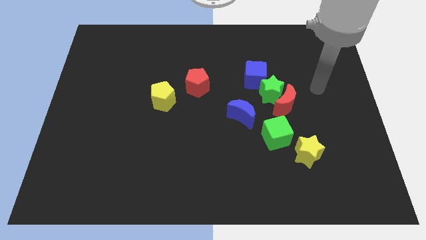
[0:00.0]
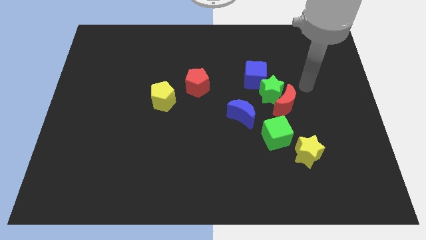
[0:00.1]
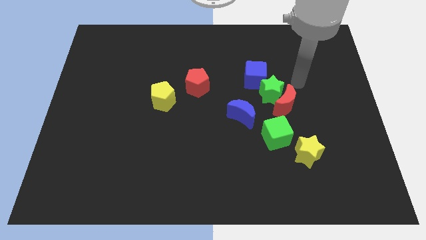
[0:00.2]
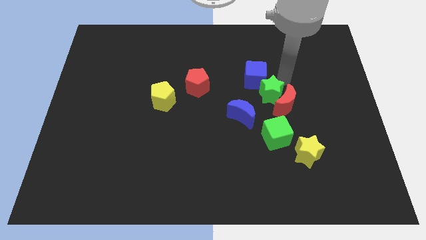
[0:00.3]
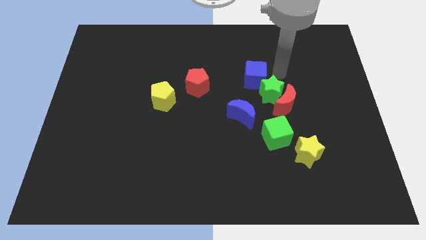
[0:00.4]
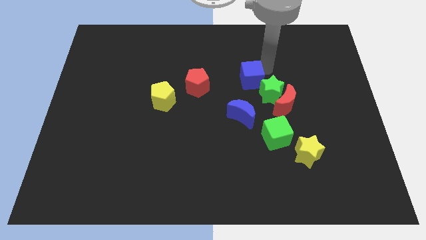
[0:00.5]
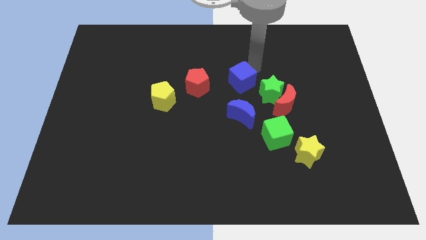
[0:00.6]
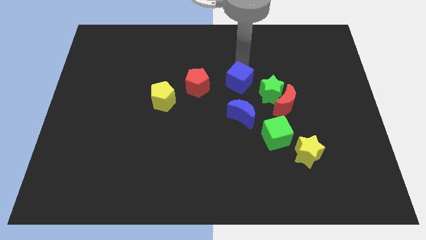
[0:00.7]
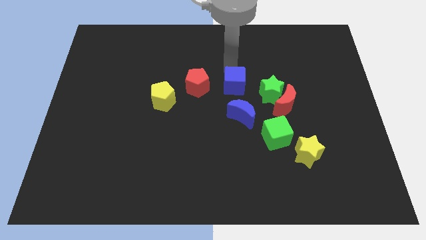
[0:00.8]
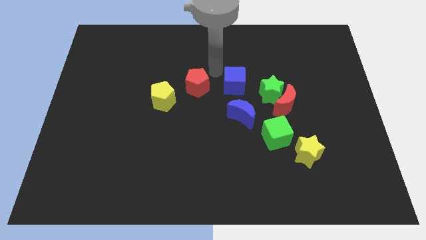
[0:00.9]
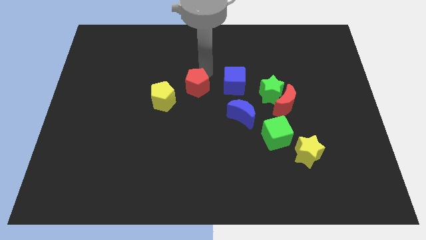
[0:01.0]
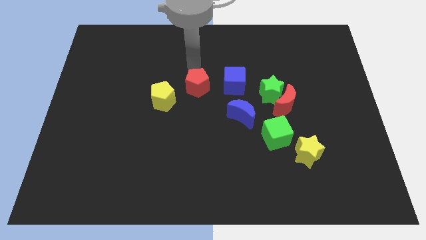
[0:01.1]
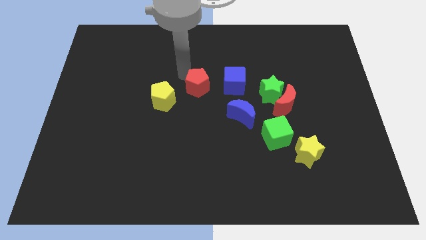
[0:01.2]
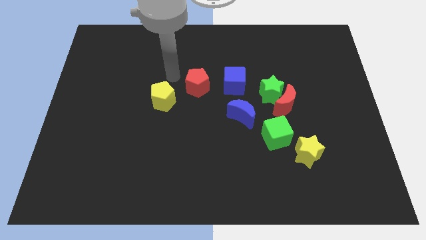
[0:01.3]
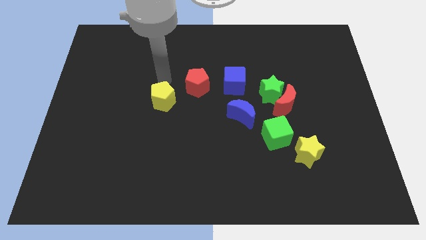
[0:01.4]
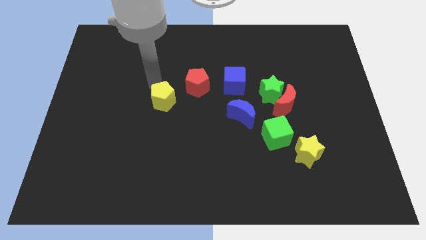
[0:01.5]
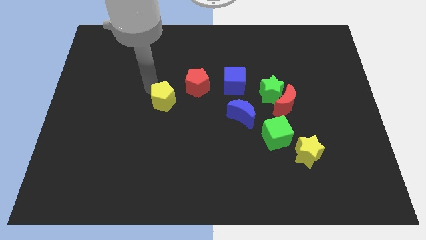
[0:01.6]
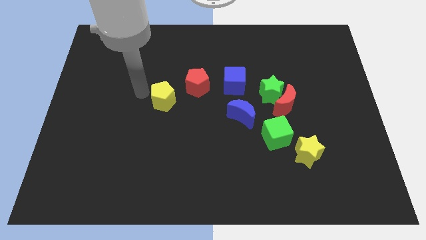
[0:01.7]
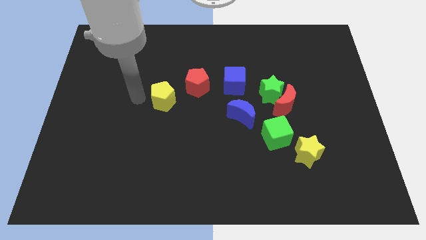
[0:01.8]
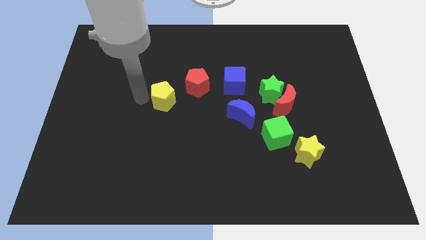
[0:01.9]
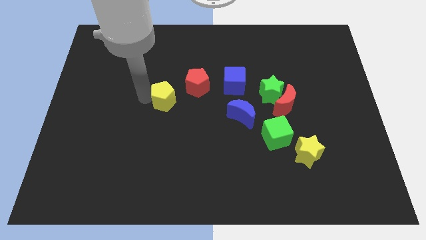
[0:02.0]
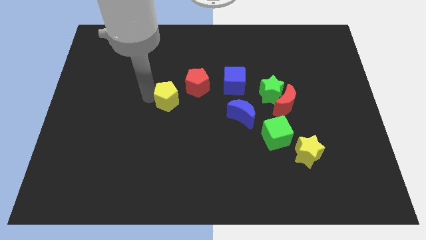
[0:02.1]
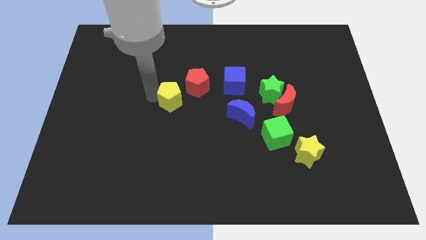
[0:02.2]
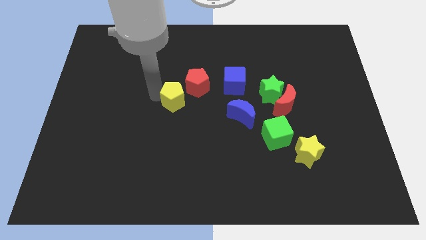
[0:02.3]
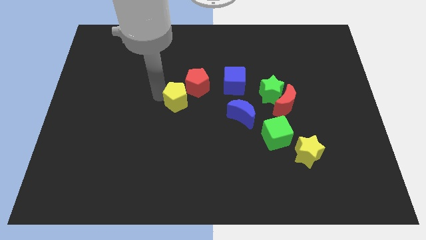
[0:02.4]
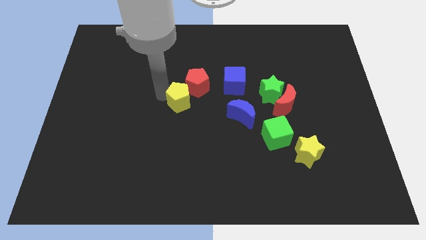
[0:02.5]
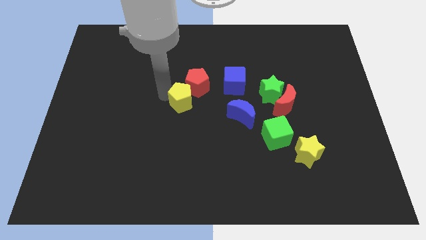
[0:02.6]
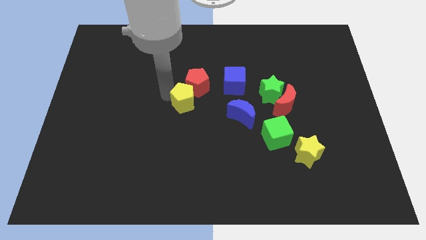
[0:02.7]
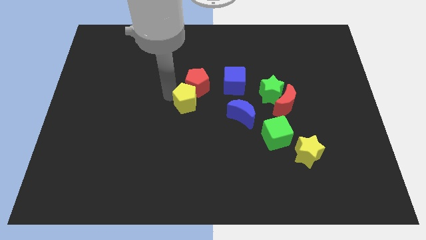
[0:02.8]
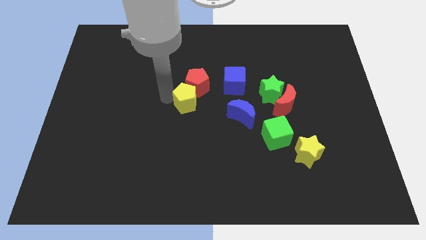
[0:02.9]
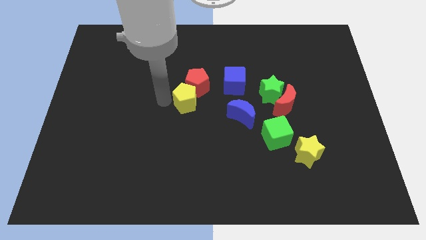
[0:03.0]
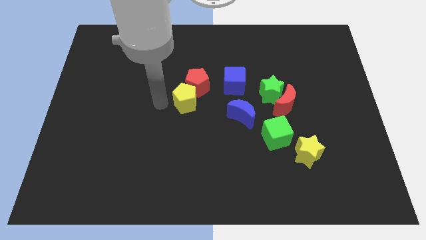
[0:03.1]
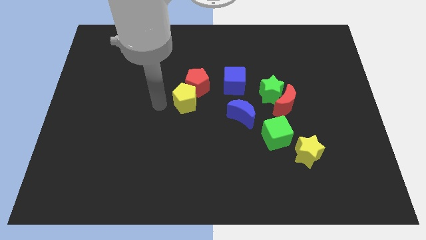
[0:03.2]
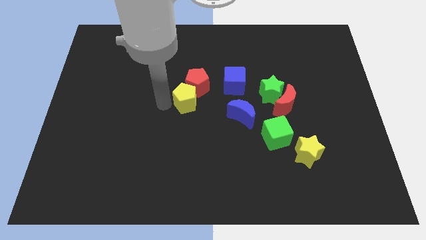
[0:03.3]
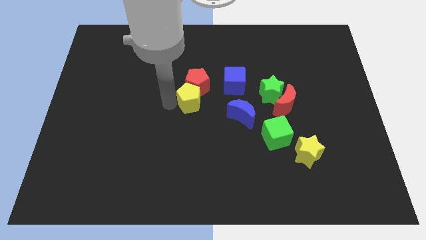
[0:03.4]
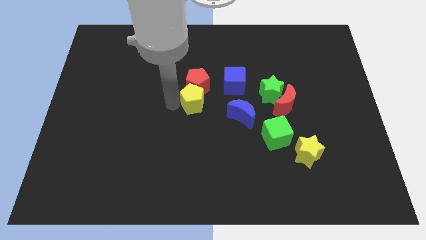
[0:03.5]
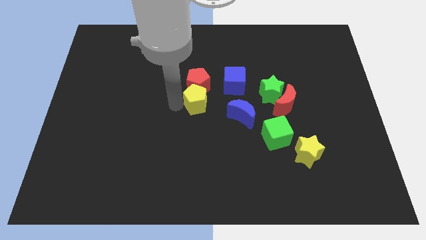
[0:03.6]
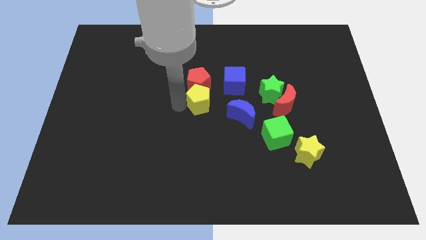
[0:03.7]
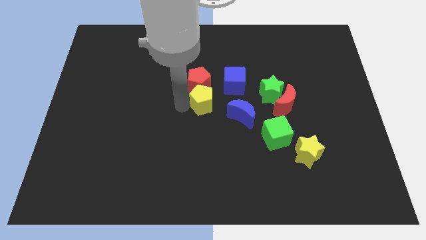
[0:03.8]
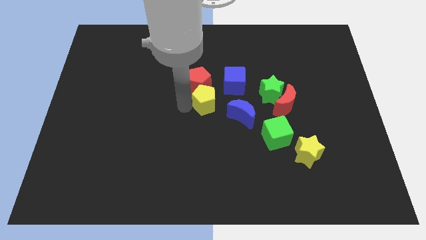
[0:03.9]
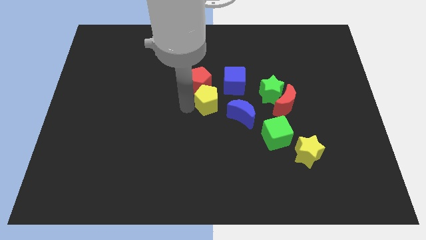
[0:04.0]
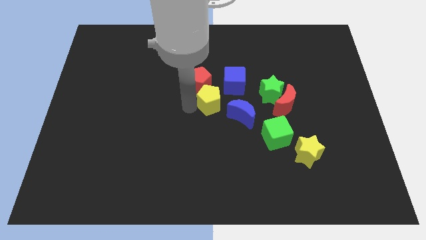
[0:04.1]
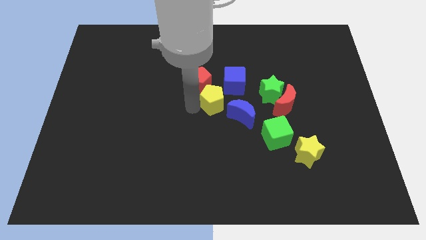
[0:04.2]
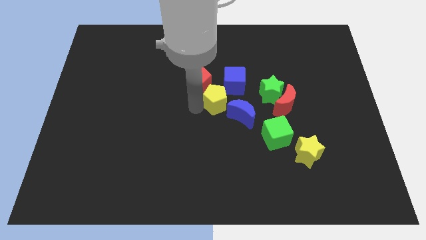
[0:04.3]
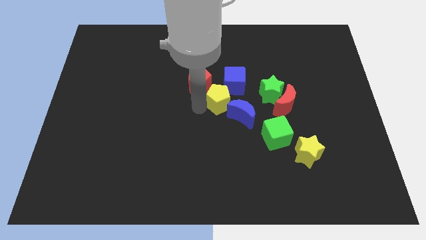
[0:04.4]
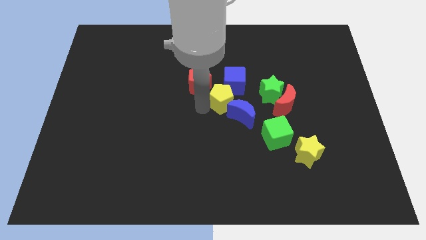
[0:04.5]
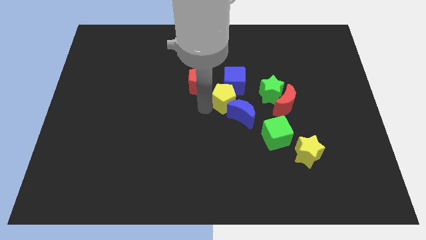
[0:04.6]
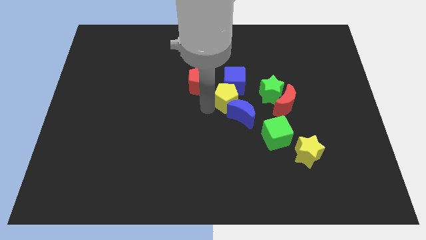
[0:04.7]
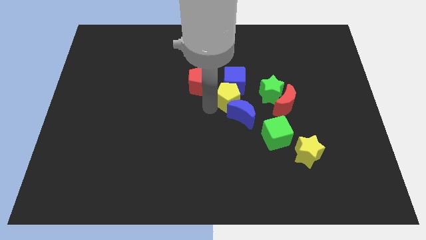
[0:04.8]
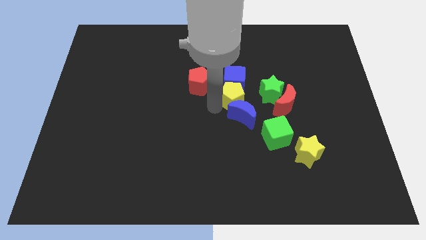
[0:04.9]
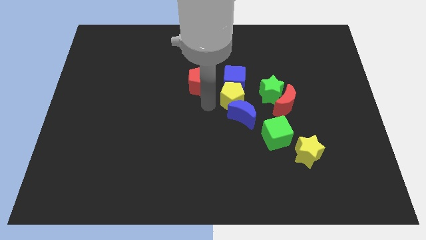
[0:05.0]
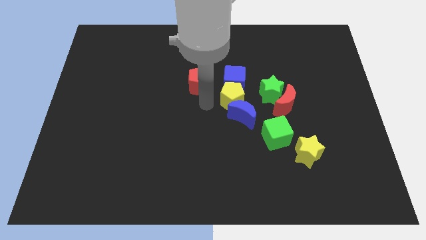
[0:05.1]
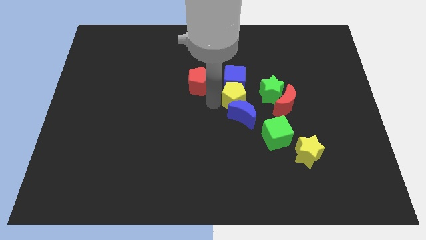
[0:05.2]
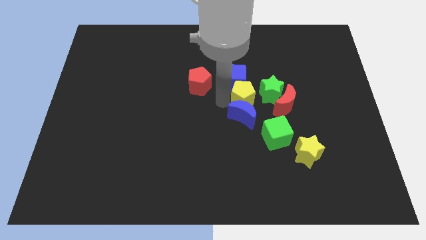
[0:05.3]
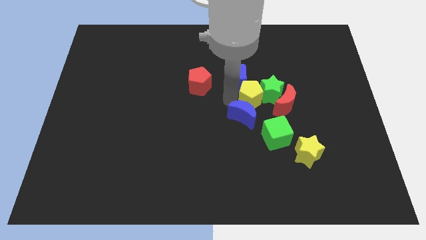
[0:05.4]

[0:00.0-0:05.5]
move the yellow pentagon to the green star

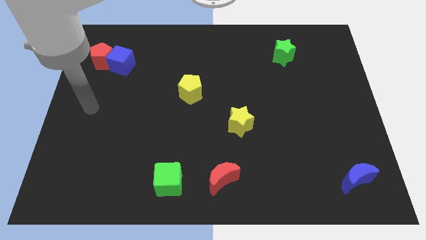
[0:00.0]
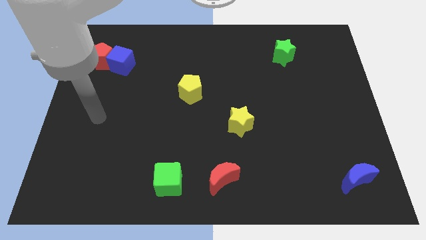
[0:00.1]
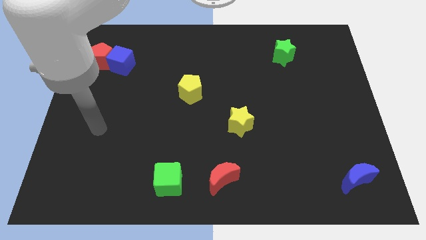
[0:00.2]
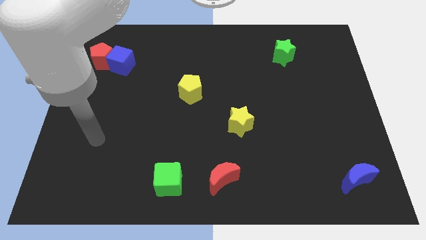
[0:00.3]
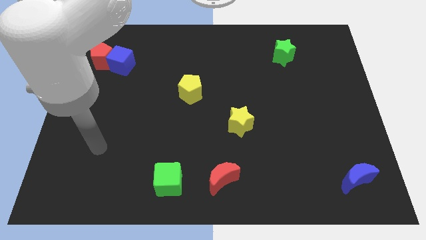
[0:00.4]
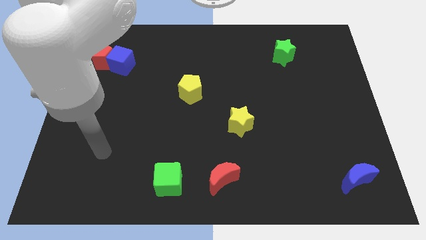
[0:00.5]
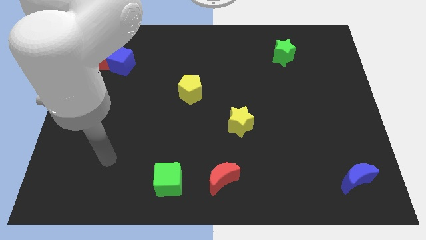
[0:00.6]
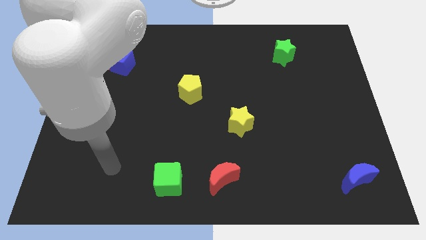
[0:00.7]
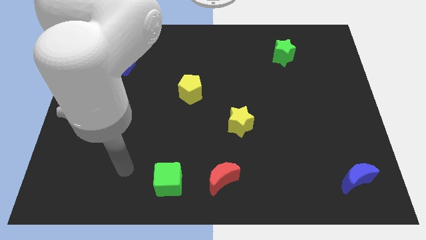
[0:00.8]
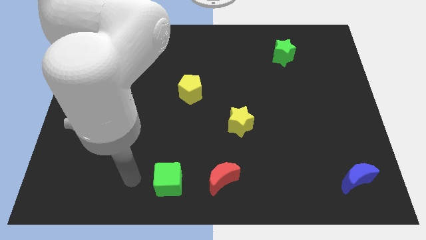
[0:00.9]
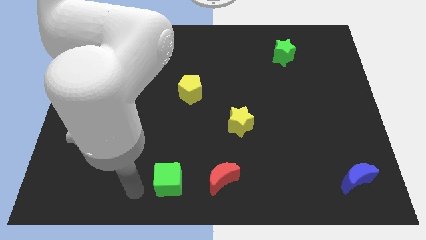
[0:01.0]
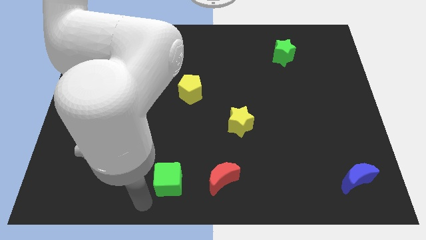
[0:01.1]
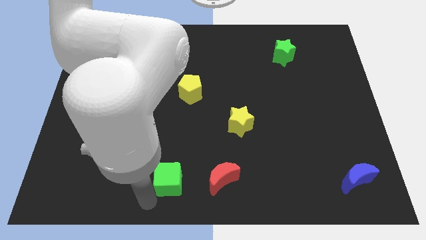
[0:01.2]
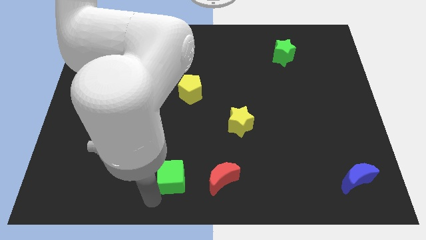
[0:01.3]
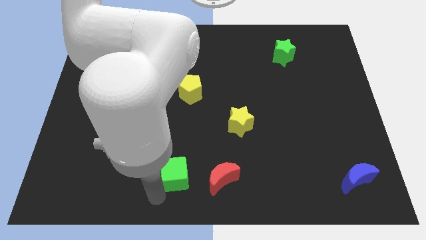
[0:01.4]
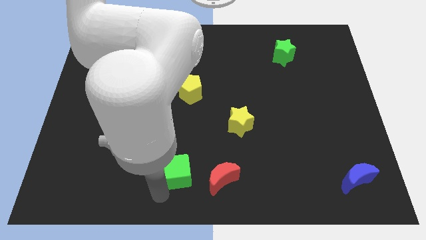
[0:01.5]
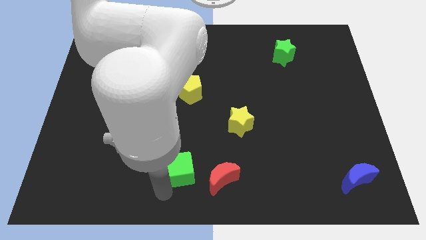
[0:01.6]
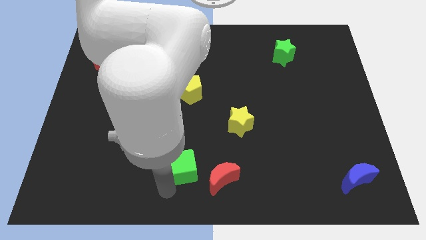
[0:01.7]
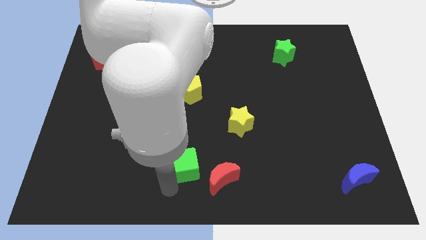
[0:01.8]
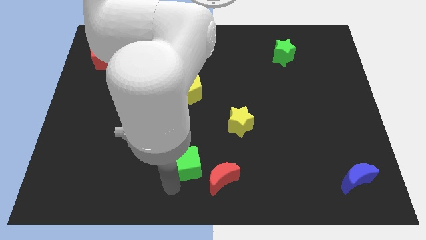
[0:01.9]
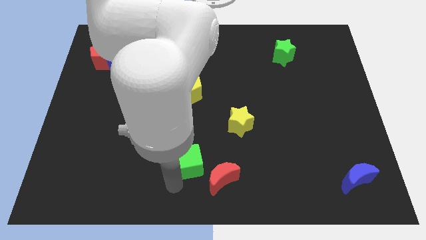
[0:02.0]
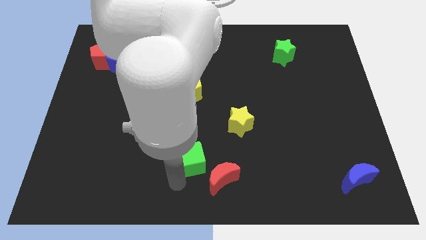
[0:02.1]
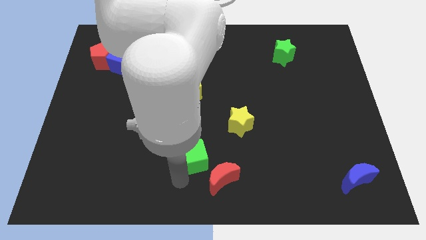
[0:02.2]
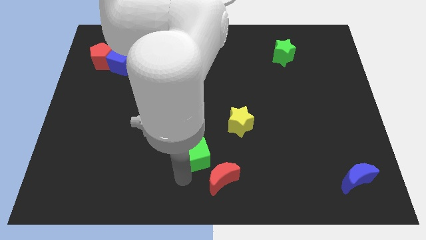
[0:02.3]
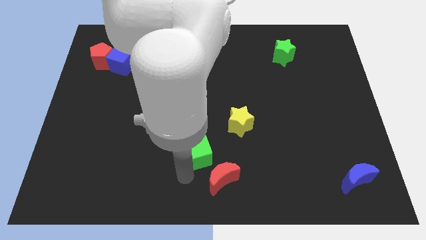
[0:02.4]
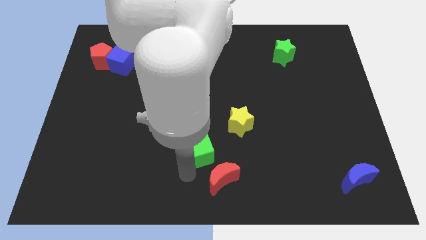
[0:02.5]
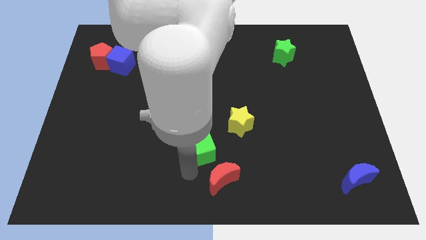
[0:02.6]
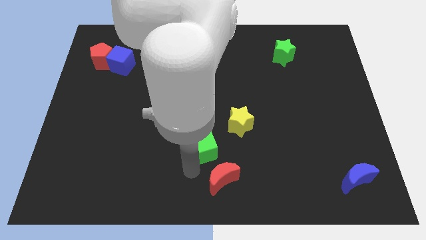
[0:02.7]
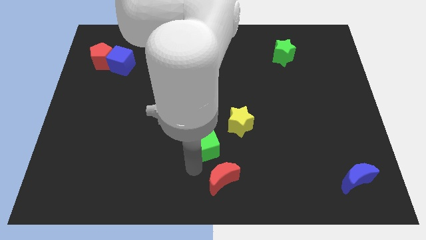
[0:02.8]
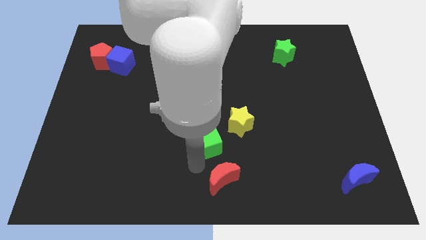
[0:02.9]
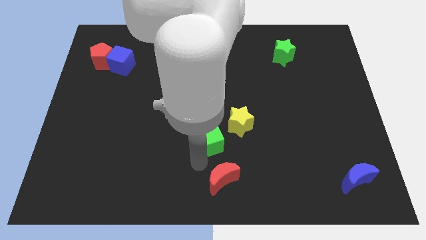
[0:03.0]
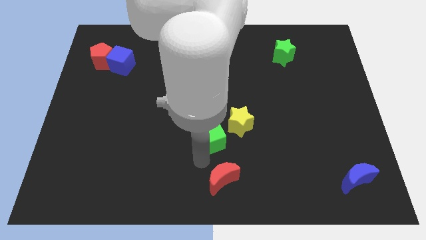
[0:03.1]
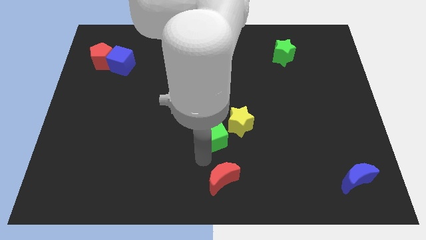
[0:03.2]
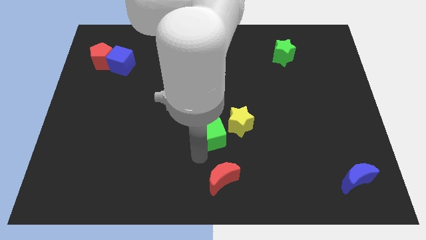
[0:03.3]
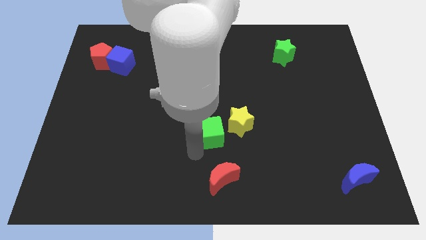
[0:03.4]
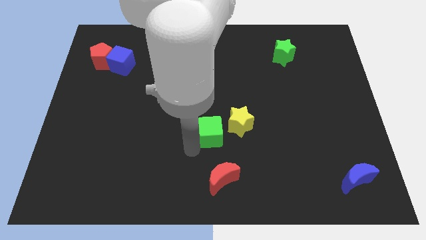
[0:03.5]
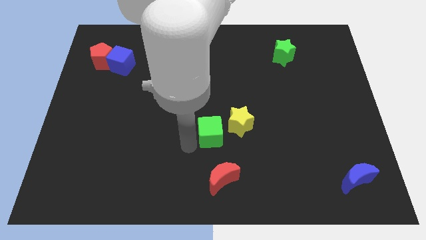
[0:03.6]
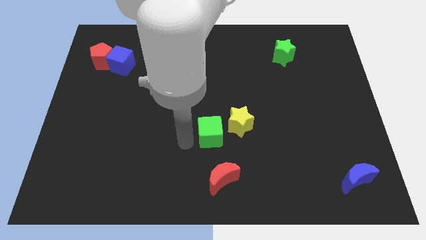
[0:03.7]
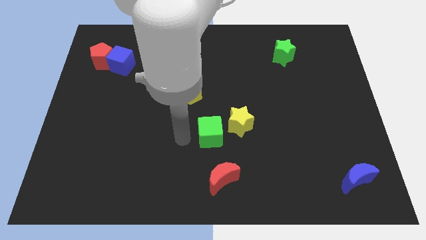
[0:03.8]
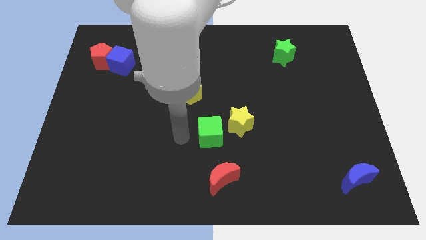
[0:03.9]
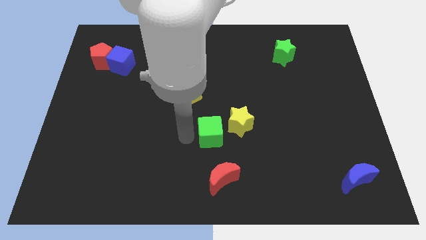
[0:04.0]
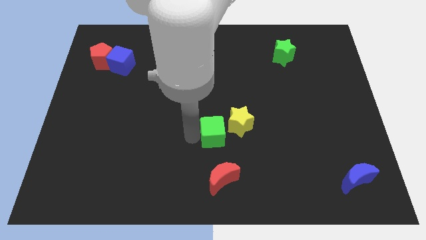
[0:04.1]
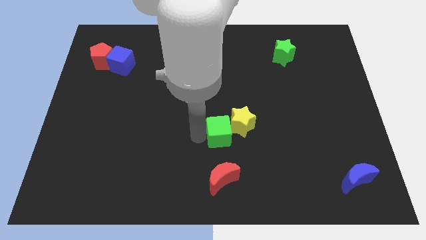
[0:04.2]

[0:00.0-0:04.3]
slide the green cube close to the yellow star
